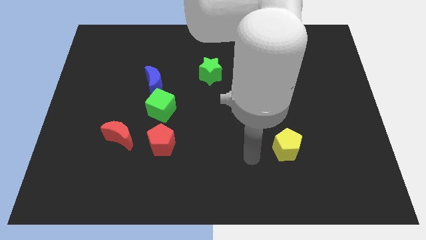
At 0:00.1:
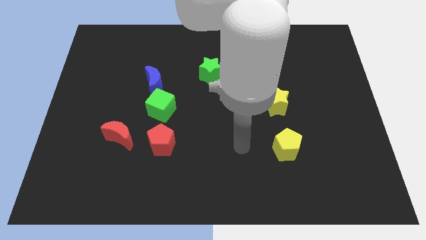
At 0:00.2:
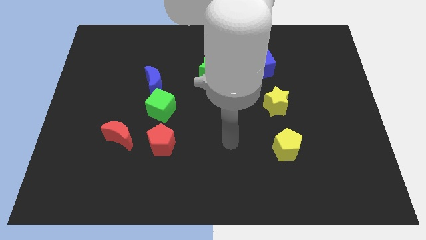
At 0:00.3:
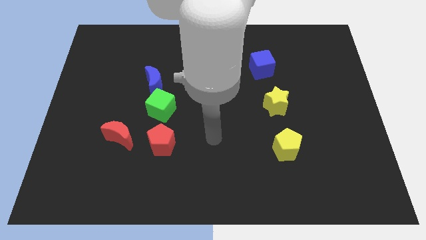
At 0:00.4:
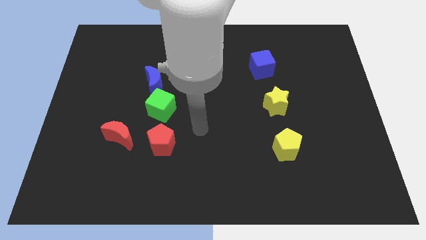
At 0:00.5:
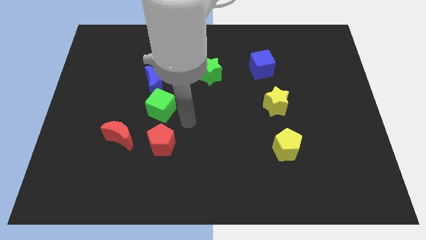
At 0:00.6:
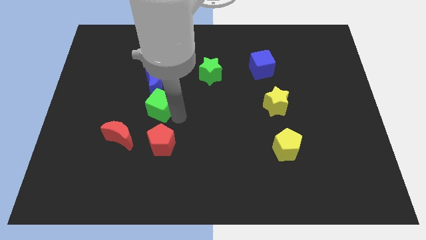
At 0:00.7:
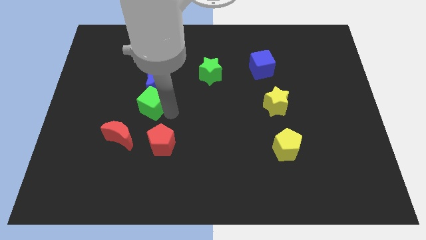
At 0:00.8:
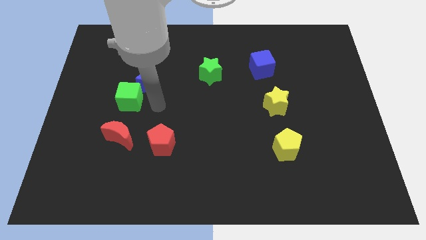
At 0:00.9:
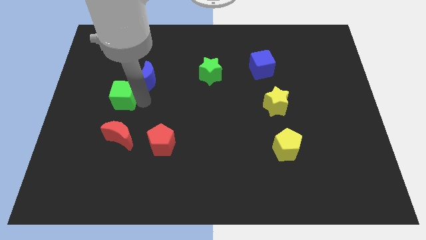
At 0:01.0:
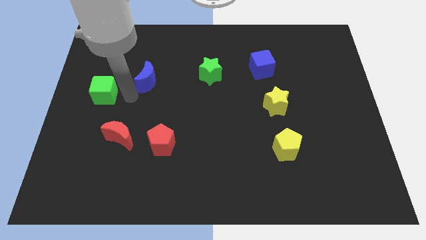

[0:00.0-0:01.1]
separate the blue moon from the green cube

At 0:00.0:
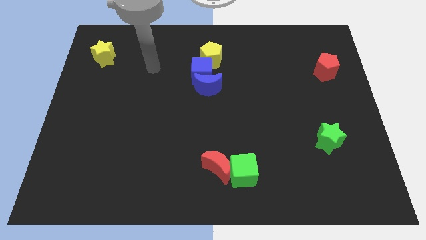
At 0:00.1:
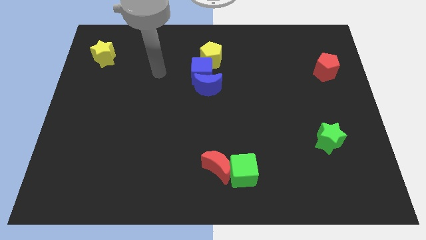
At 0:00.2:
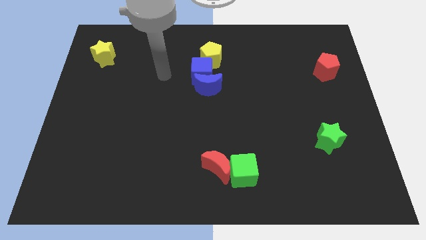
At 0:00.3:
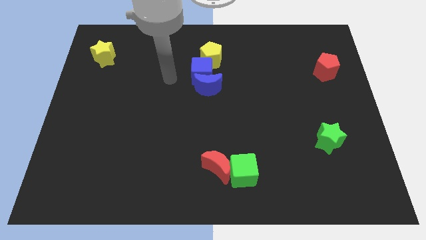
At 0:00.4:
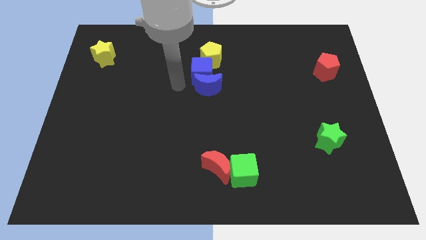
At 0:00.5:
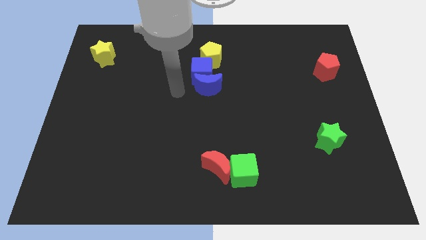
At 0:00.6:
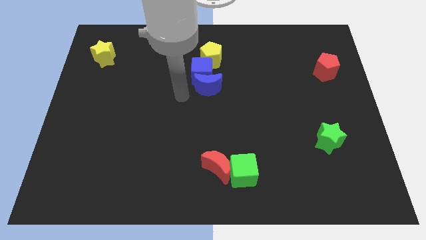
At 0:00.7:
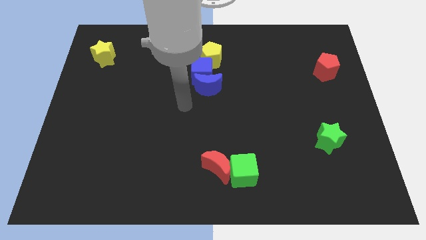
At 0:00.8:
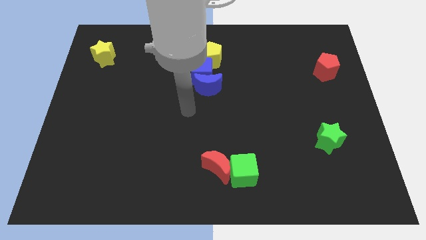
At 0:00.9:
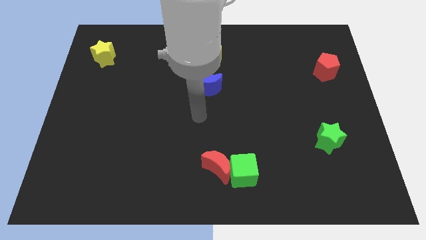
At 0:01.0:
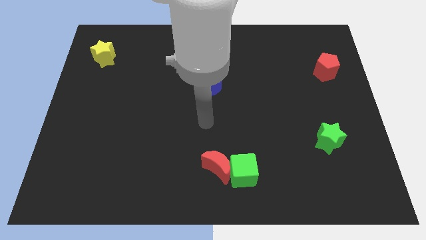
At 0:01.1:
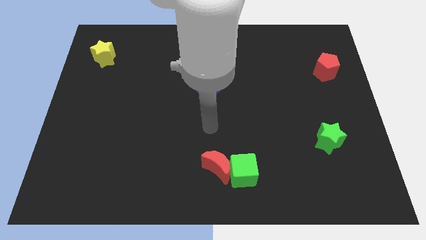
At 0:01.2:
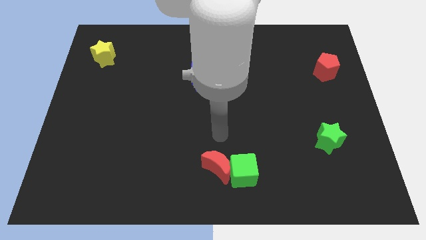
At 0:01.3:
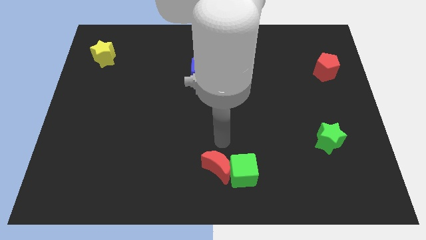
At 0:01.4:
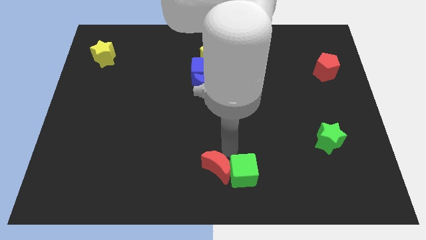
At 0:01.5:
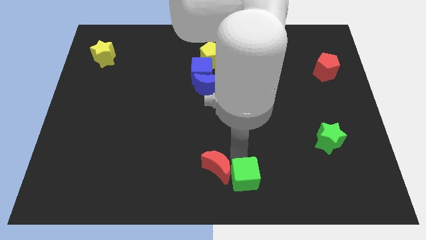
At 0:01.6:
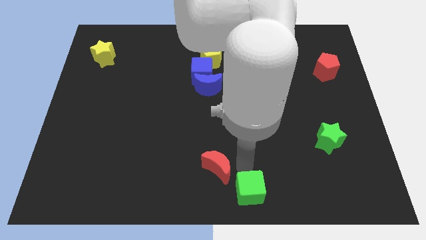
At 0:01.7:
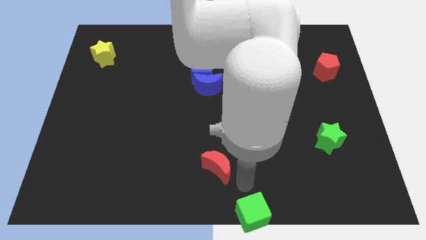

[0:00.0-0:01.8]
pull the red moon apart from the green cube

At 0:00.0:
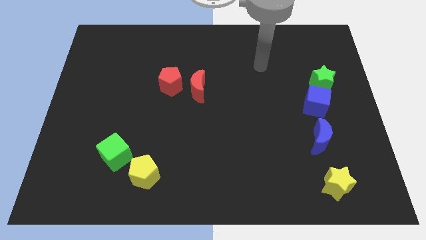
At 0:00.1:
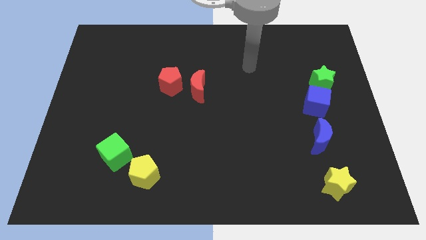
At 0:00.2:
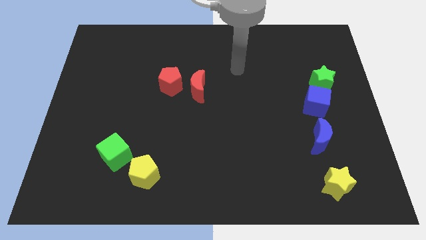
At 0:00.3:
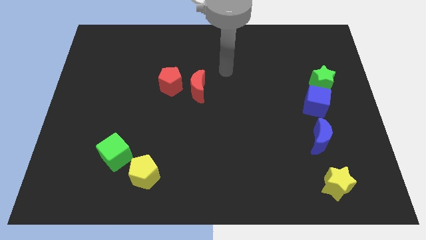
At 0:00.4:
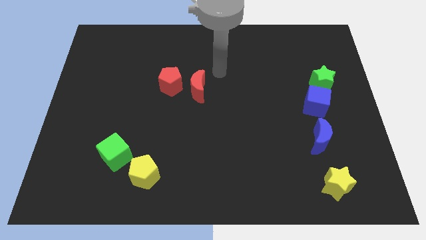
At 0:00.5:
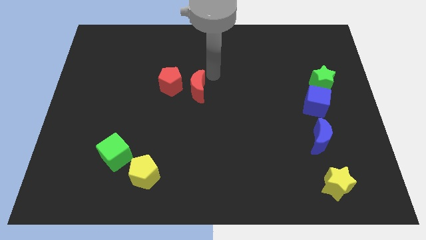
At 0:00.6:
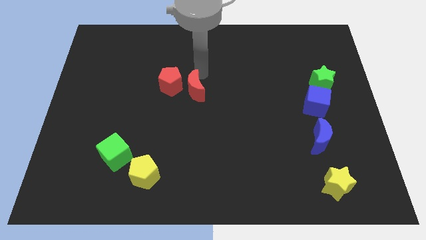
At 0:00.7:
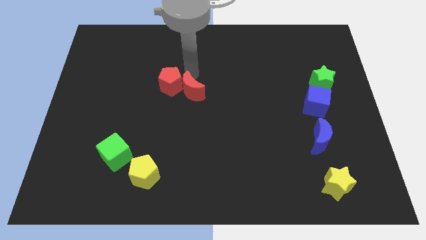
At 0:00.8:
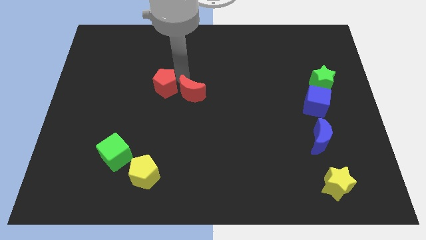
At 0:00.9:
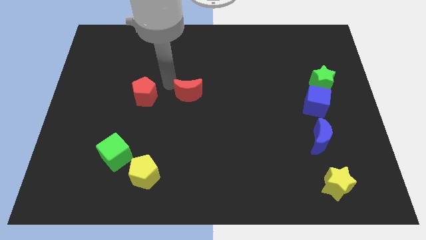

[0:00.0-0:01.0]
move the red moon away from the red pentagon

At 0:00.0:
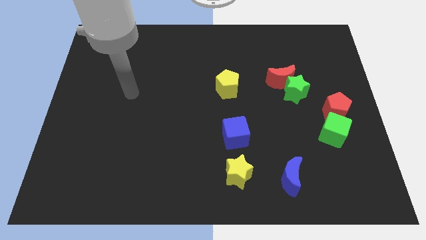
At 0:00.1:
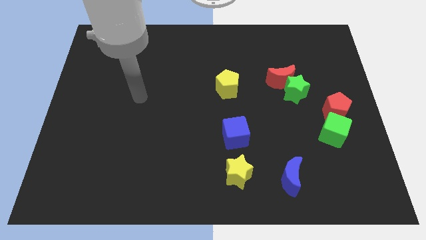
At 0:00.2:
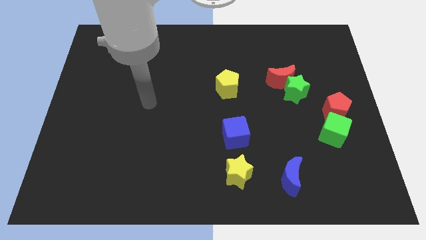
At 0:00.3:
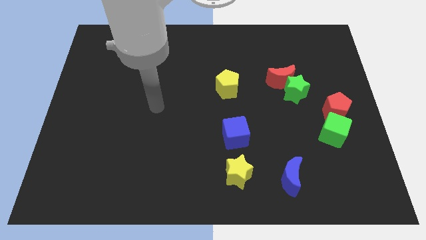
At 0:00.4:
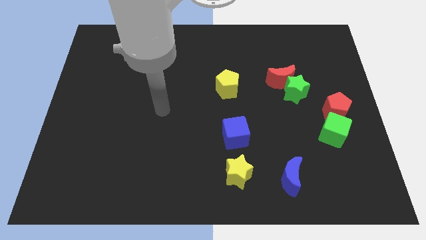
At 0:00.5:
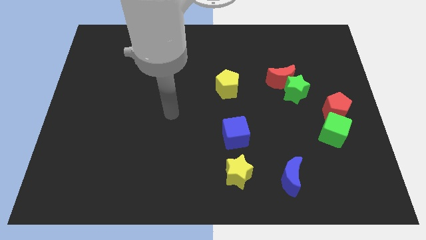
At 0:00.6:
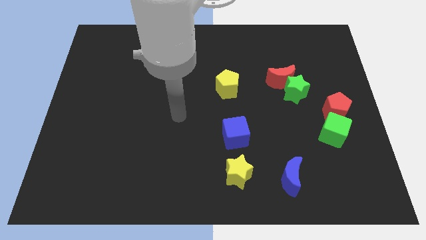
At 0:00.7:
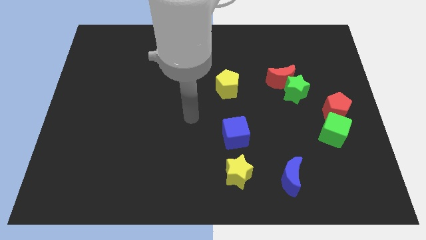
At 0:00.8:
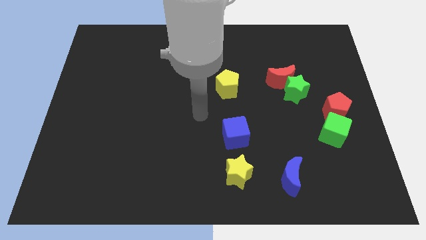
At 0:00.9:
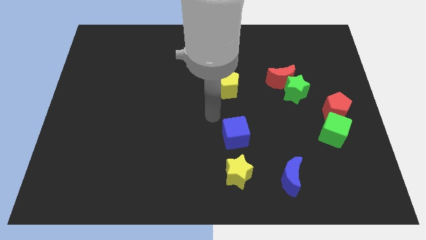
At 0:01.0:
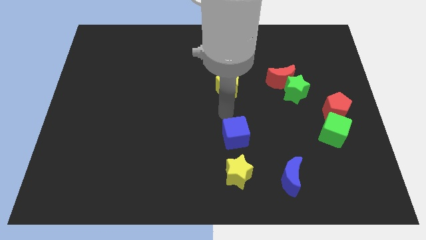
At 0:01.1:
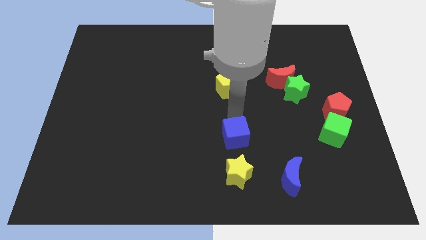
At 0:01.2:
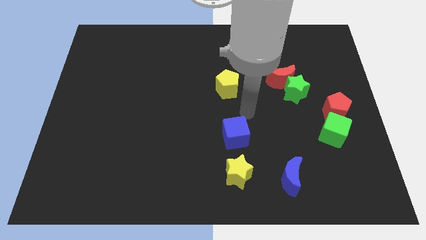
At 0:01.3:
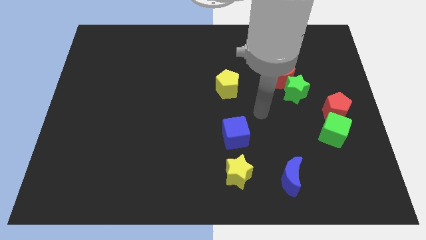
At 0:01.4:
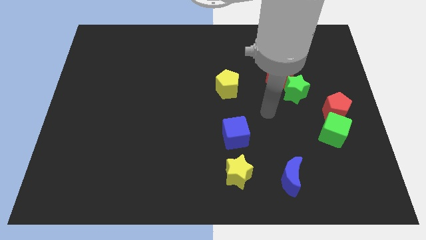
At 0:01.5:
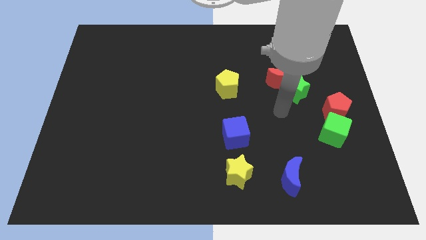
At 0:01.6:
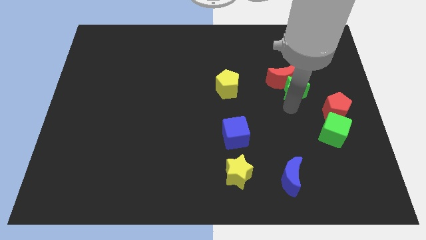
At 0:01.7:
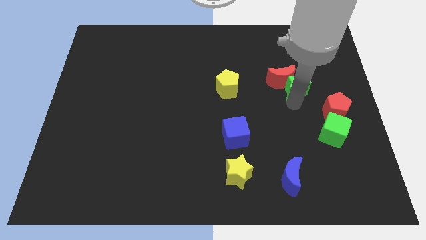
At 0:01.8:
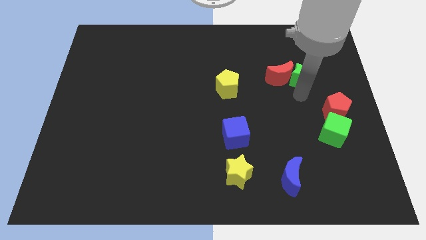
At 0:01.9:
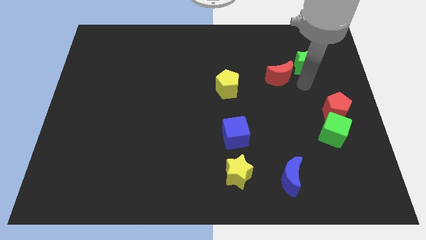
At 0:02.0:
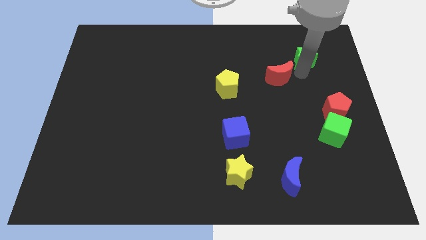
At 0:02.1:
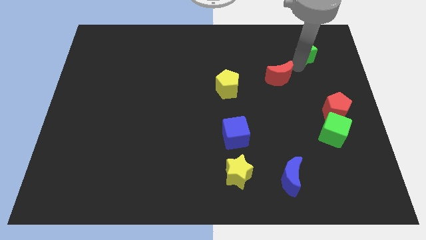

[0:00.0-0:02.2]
pull the red moon apart from the green star

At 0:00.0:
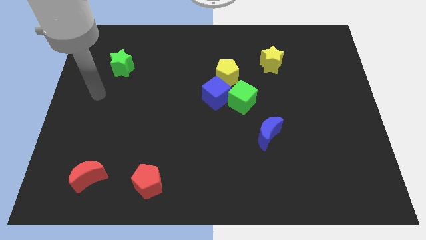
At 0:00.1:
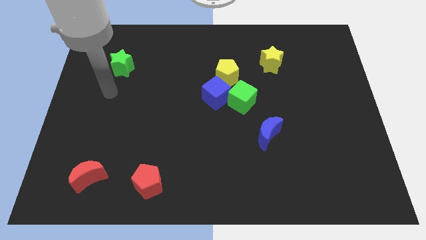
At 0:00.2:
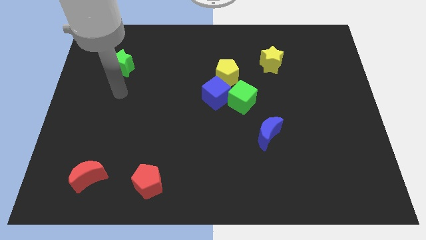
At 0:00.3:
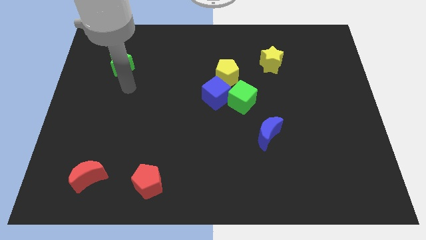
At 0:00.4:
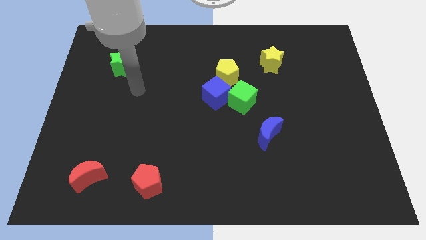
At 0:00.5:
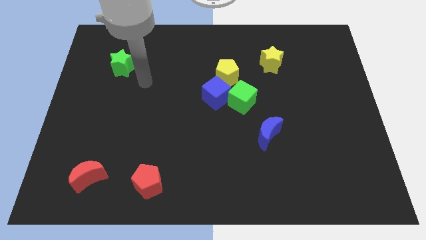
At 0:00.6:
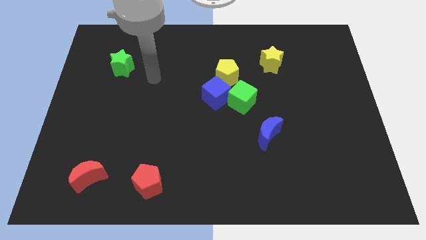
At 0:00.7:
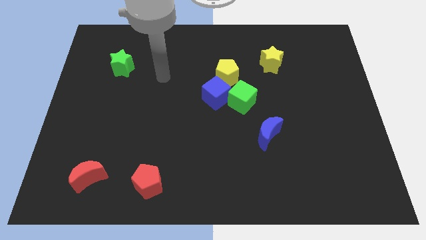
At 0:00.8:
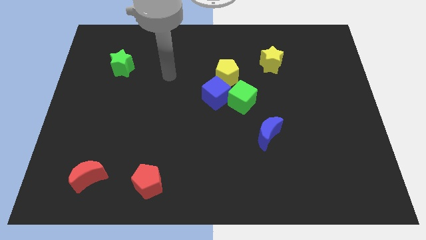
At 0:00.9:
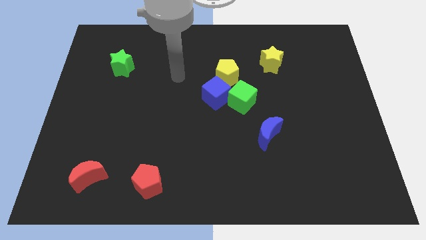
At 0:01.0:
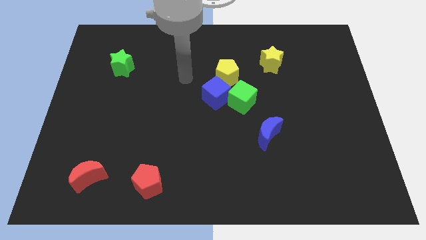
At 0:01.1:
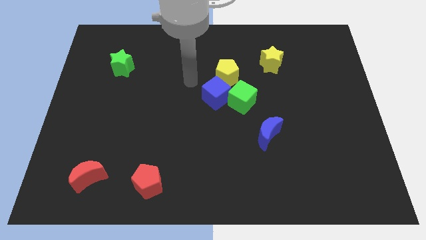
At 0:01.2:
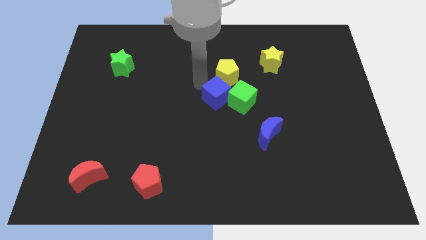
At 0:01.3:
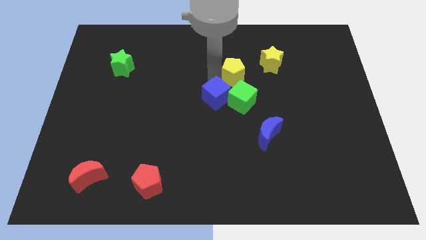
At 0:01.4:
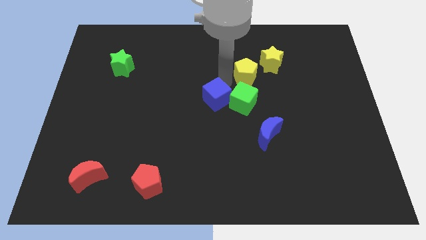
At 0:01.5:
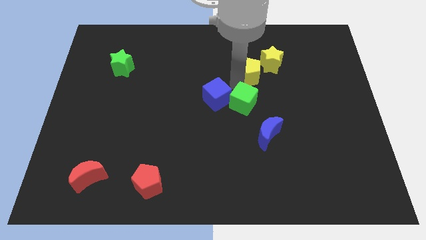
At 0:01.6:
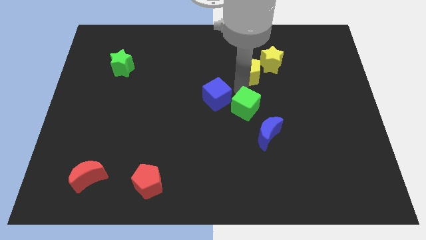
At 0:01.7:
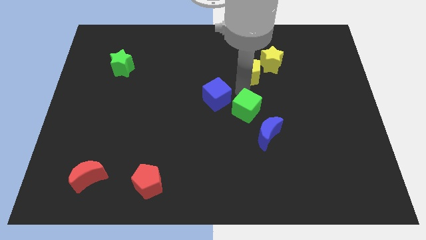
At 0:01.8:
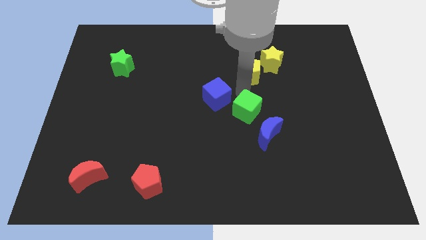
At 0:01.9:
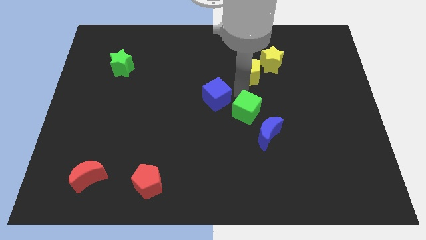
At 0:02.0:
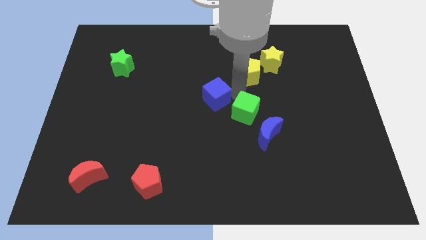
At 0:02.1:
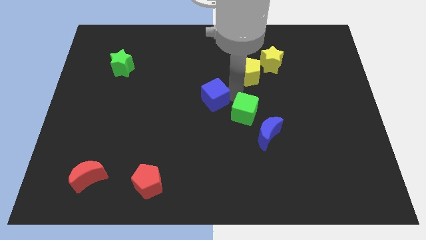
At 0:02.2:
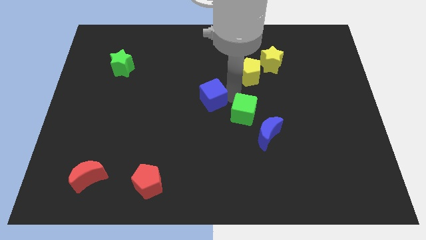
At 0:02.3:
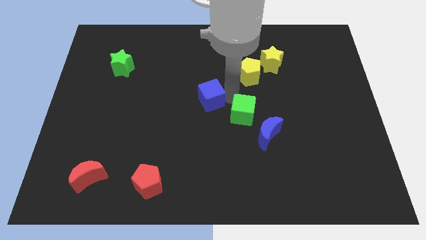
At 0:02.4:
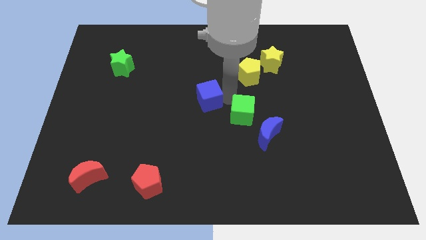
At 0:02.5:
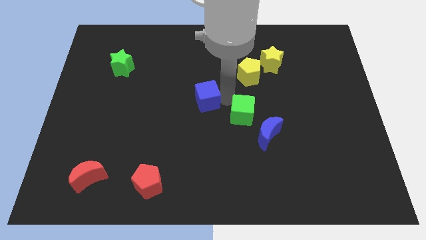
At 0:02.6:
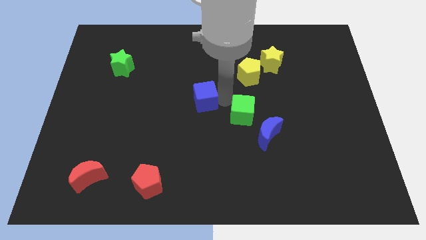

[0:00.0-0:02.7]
pull the blue cube apart from the green cube and yellow pentagon

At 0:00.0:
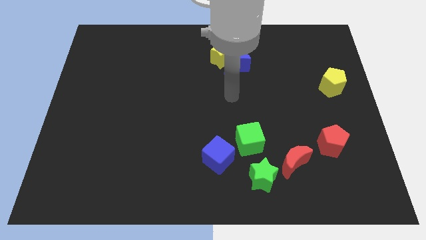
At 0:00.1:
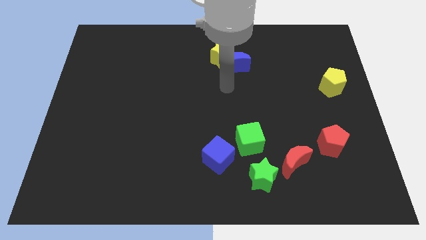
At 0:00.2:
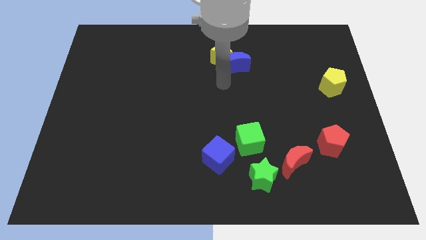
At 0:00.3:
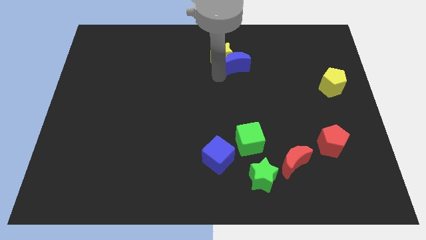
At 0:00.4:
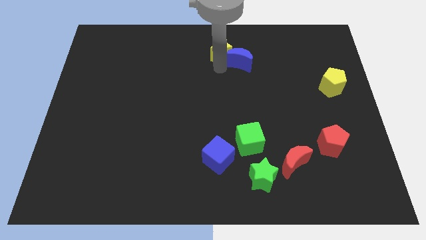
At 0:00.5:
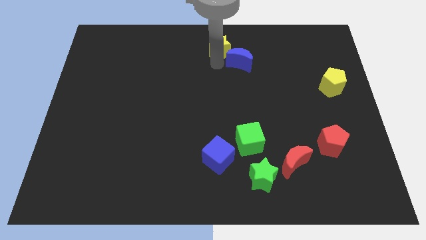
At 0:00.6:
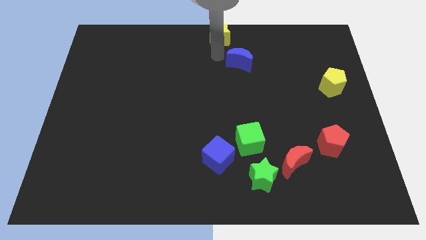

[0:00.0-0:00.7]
separate the blue moon from the yellow star
